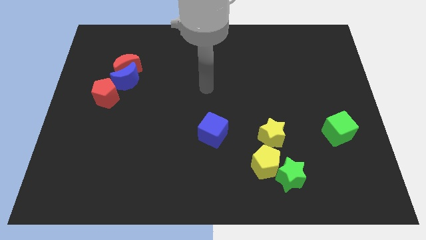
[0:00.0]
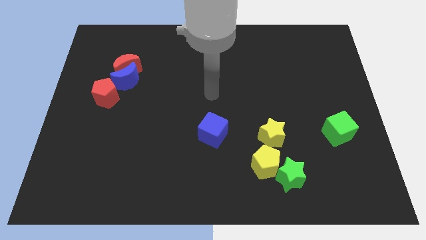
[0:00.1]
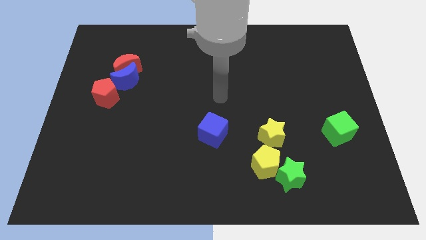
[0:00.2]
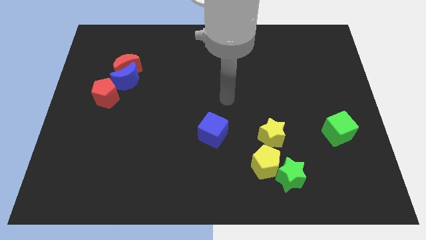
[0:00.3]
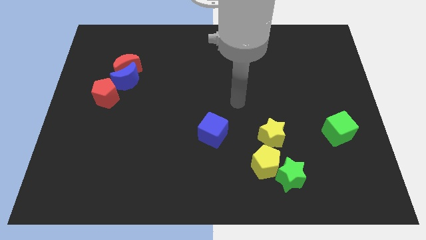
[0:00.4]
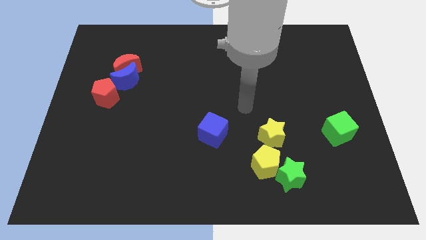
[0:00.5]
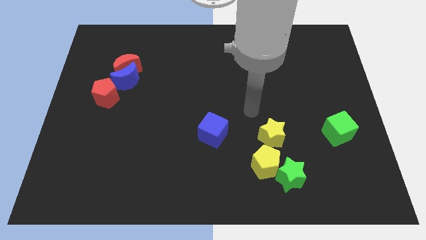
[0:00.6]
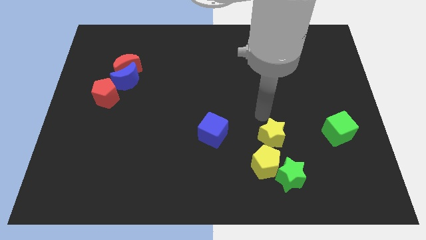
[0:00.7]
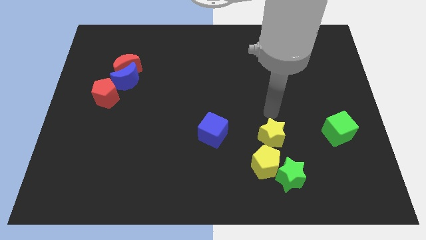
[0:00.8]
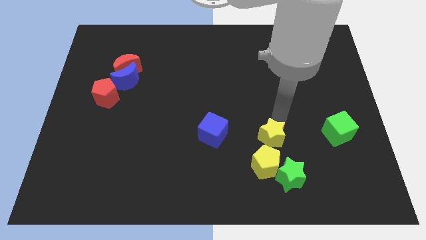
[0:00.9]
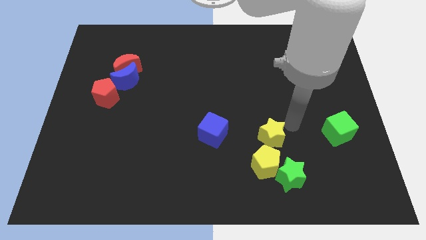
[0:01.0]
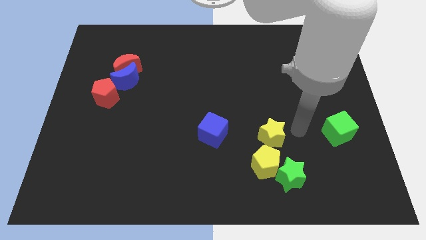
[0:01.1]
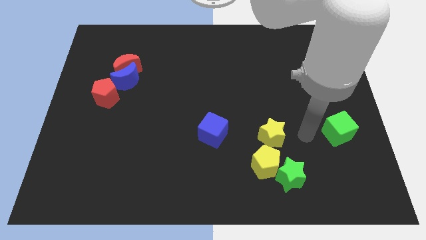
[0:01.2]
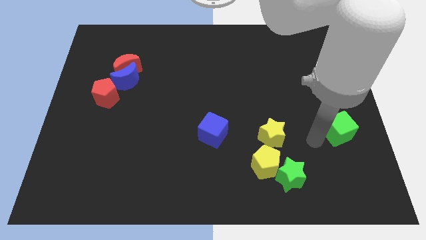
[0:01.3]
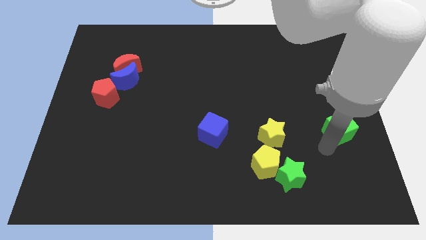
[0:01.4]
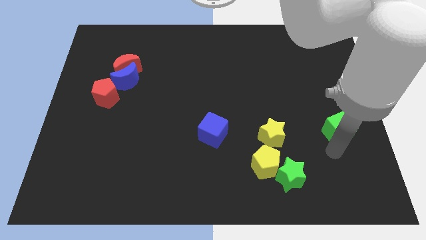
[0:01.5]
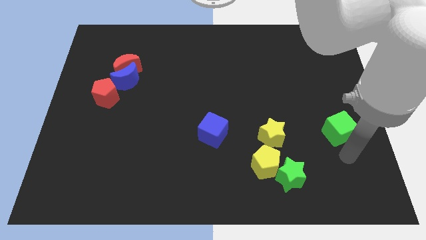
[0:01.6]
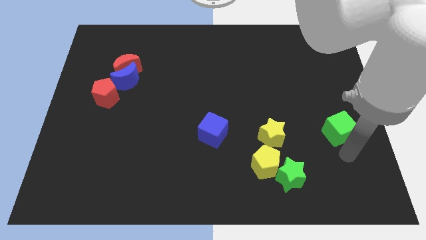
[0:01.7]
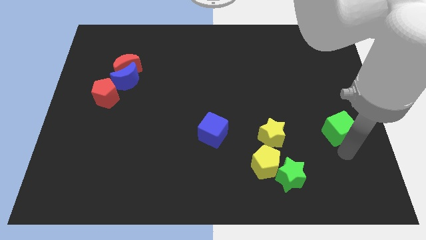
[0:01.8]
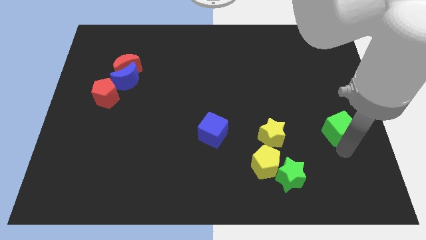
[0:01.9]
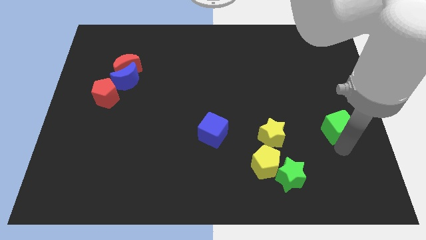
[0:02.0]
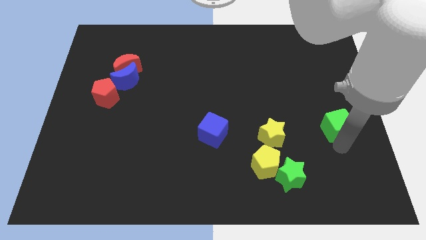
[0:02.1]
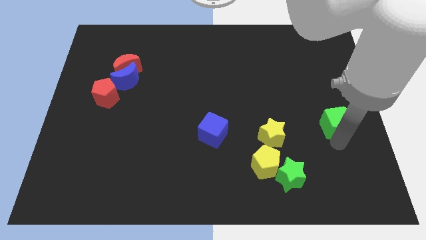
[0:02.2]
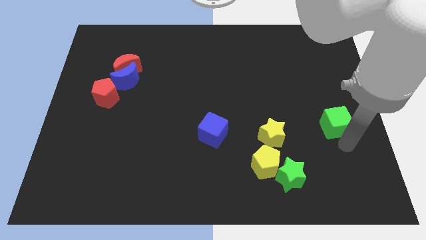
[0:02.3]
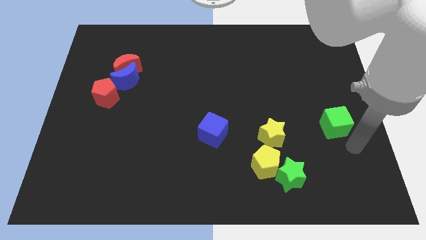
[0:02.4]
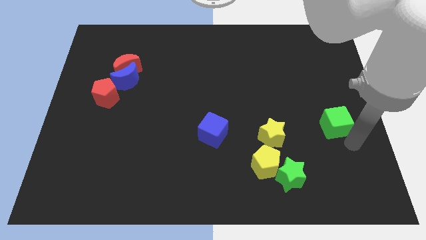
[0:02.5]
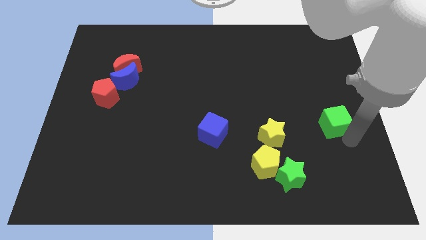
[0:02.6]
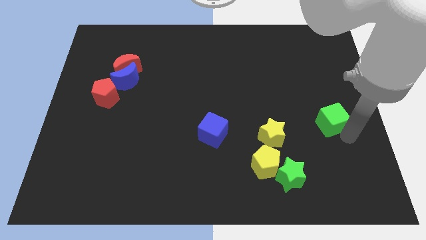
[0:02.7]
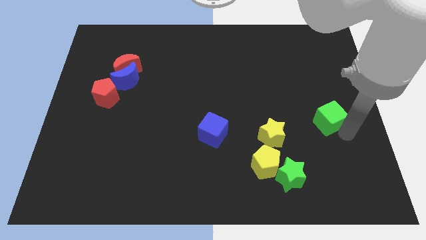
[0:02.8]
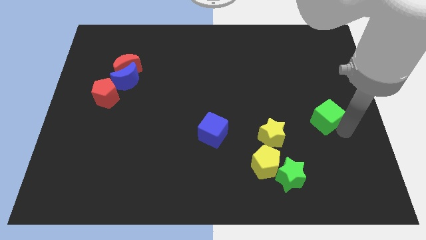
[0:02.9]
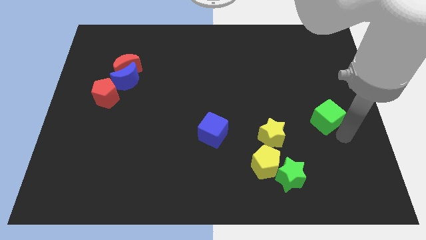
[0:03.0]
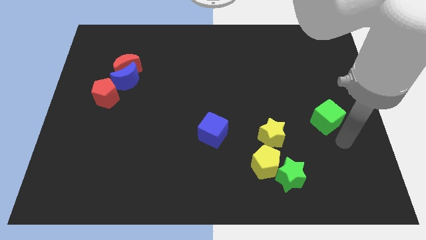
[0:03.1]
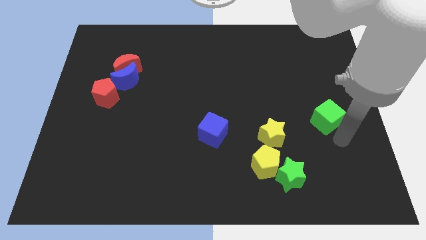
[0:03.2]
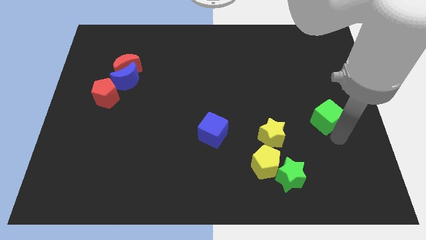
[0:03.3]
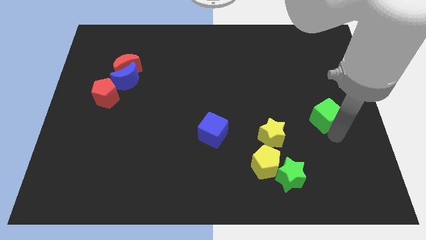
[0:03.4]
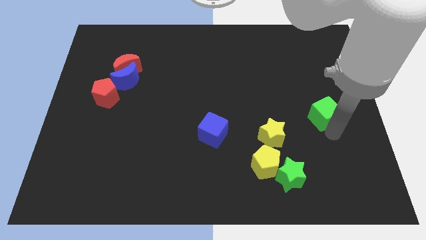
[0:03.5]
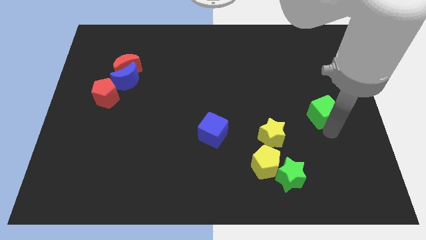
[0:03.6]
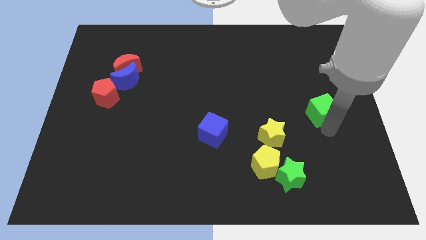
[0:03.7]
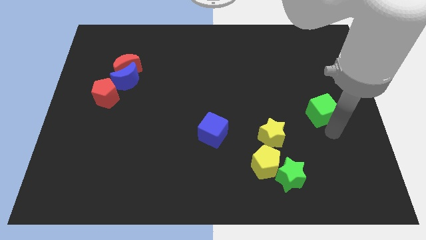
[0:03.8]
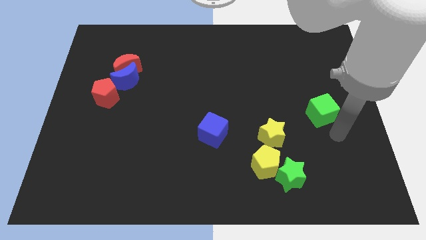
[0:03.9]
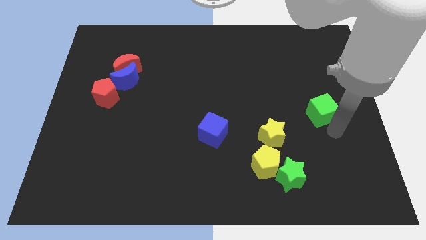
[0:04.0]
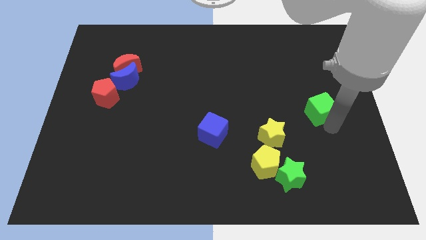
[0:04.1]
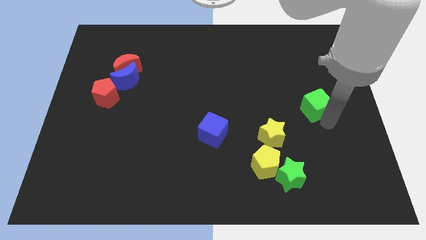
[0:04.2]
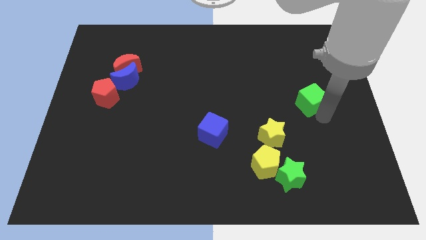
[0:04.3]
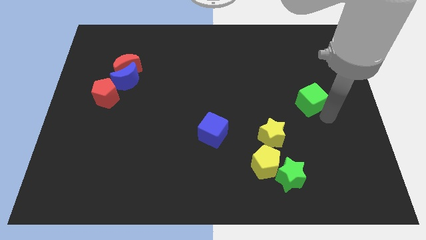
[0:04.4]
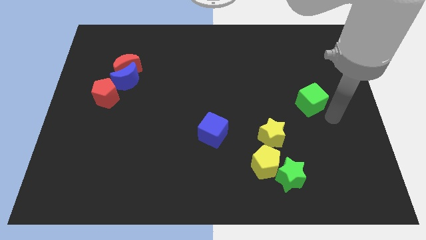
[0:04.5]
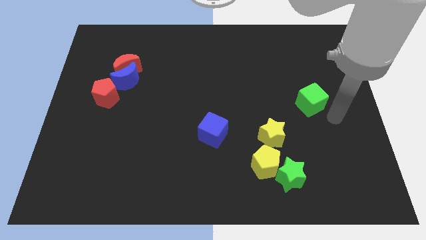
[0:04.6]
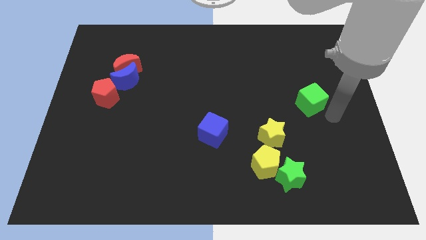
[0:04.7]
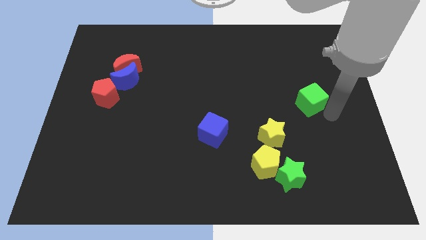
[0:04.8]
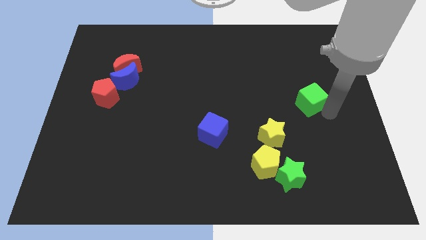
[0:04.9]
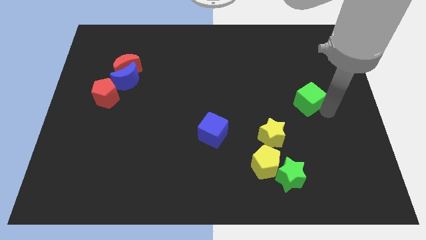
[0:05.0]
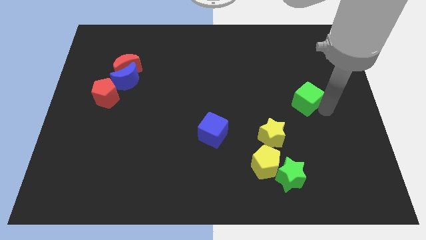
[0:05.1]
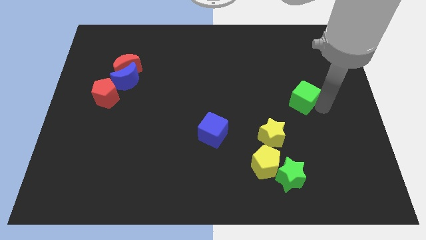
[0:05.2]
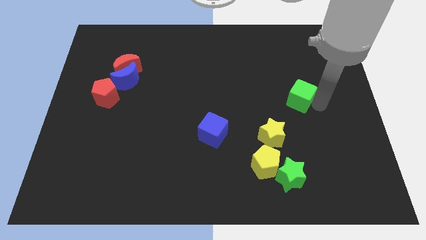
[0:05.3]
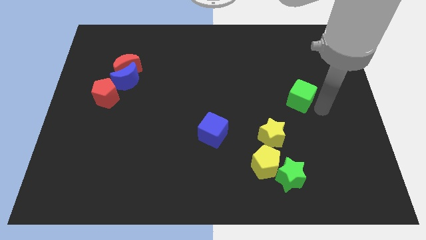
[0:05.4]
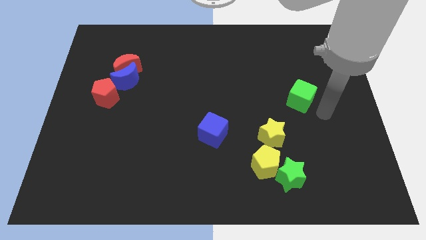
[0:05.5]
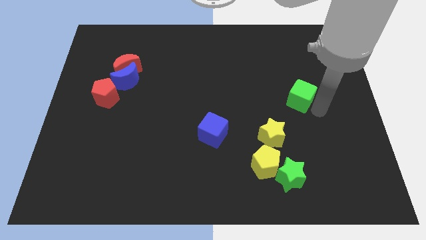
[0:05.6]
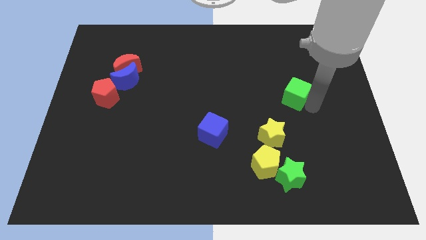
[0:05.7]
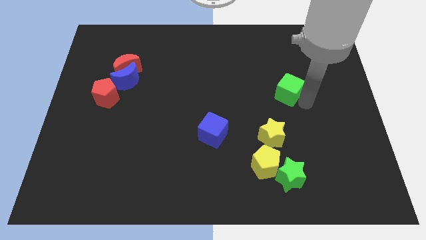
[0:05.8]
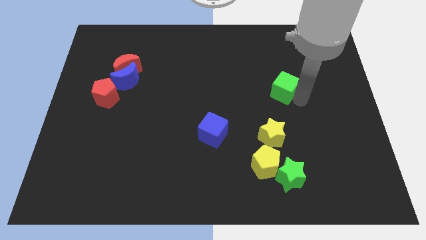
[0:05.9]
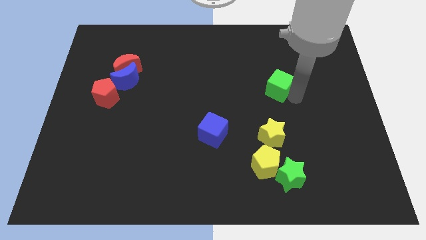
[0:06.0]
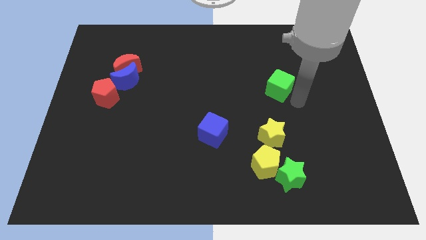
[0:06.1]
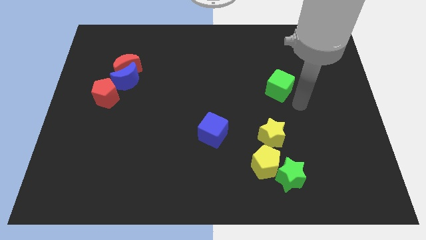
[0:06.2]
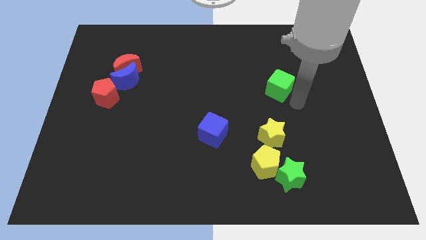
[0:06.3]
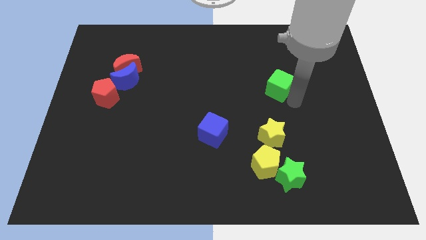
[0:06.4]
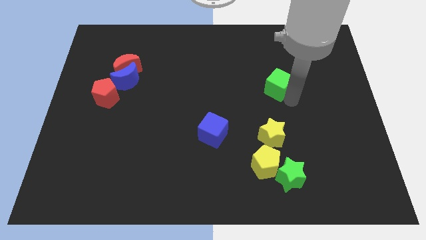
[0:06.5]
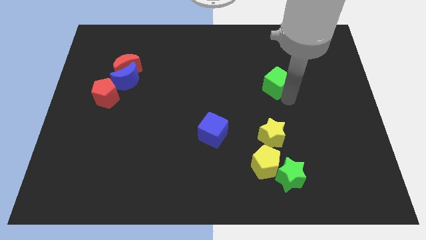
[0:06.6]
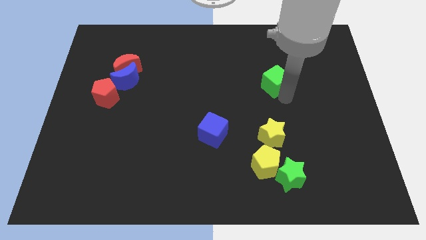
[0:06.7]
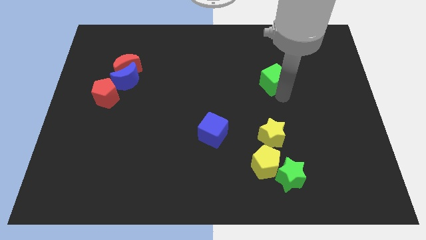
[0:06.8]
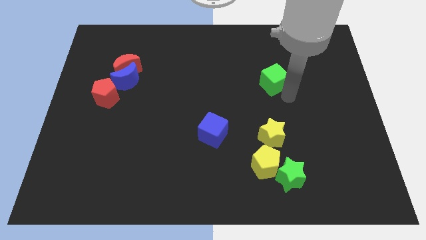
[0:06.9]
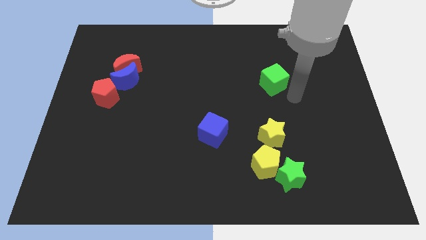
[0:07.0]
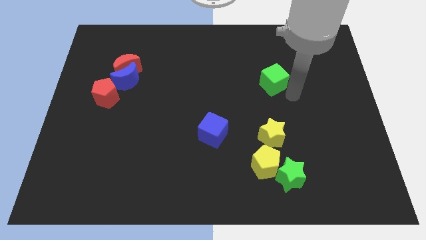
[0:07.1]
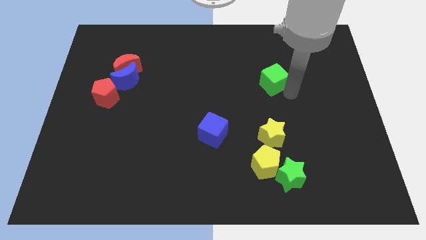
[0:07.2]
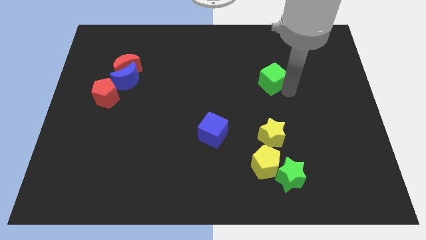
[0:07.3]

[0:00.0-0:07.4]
move the green cube diagonally up and left

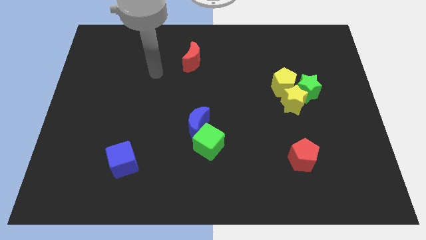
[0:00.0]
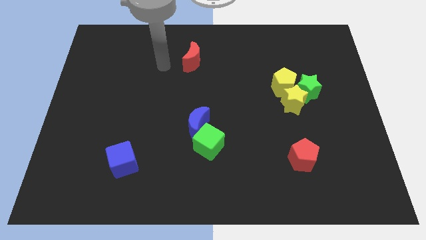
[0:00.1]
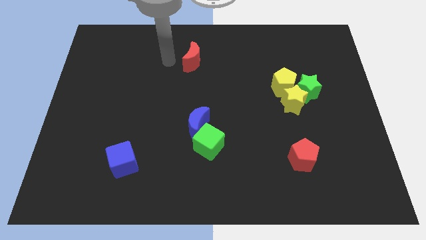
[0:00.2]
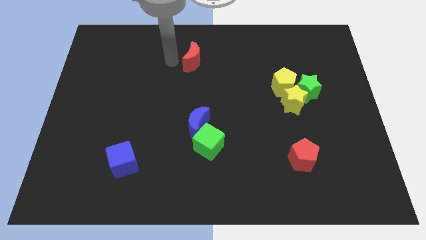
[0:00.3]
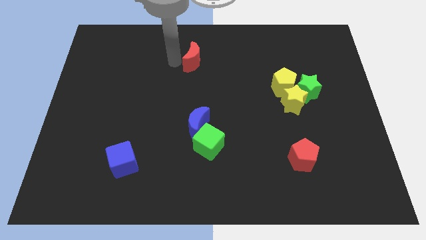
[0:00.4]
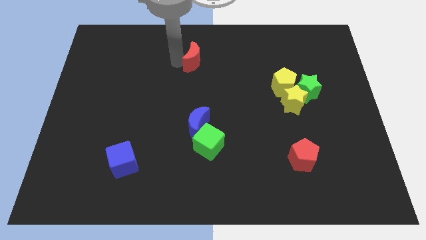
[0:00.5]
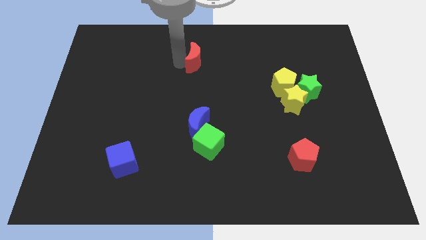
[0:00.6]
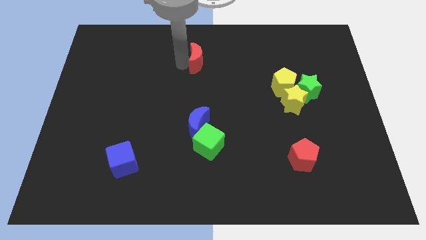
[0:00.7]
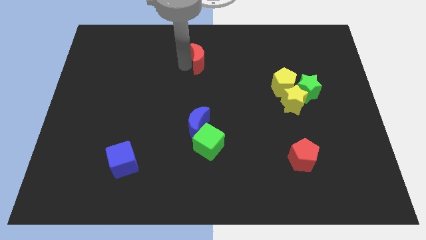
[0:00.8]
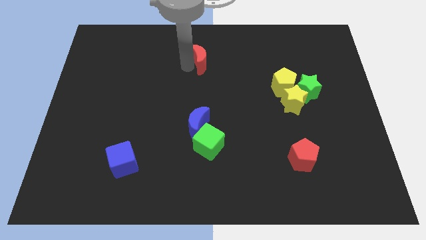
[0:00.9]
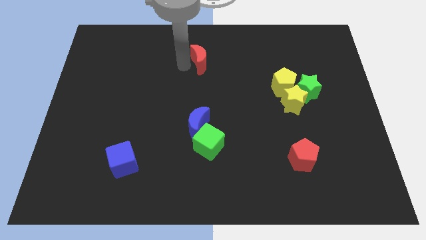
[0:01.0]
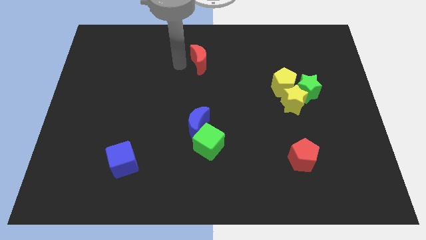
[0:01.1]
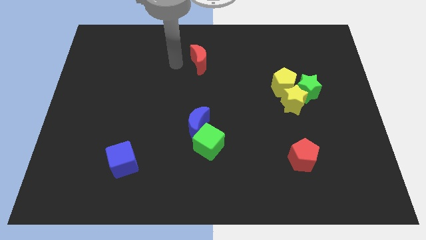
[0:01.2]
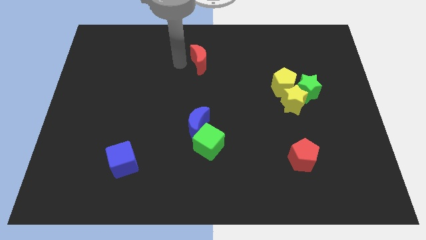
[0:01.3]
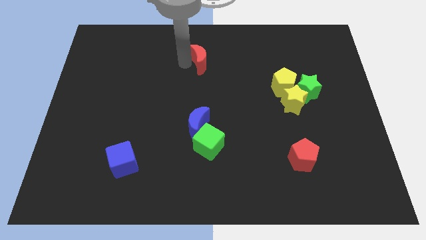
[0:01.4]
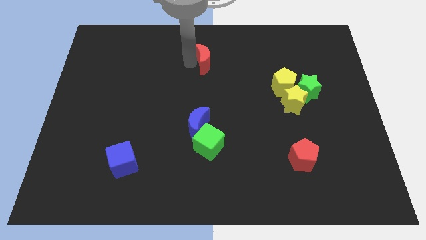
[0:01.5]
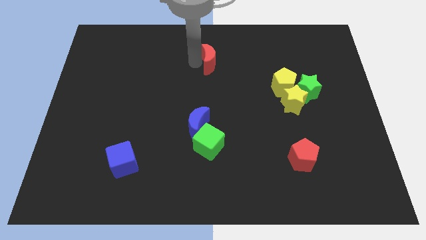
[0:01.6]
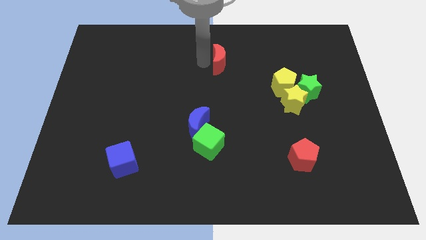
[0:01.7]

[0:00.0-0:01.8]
slide the red moon somewhat right
